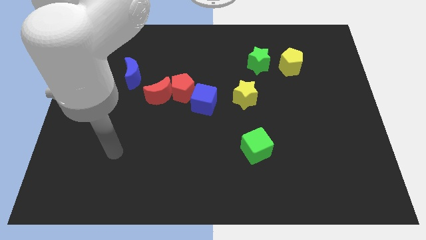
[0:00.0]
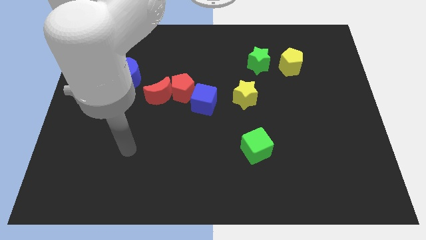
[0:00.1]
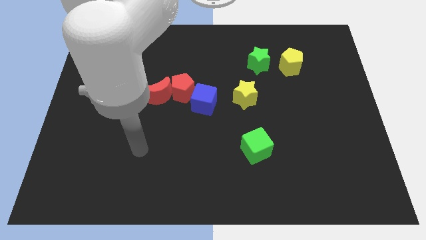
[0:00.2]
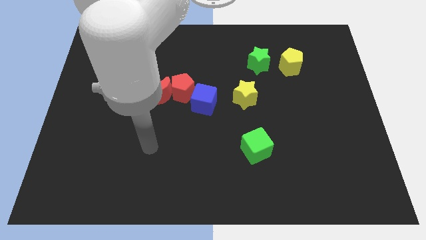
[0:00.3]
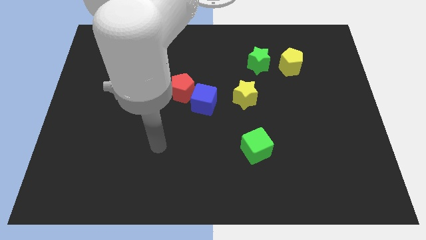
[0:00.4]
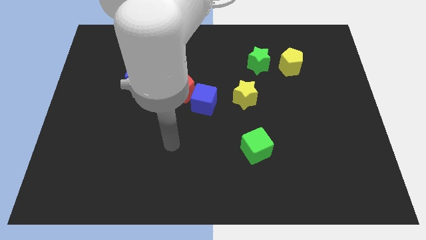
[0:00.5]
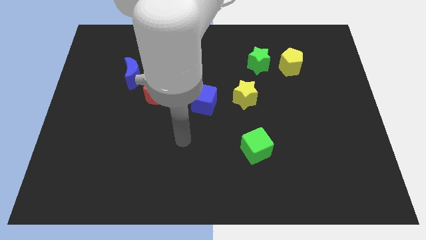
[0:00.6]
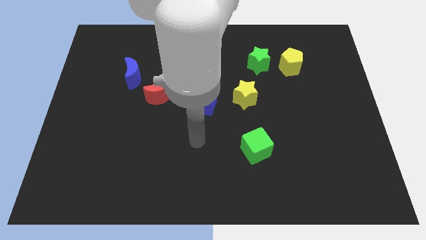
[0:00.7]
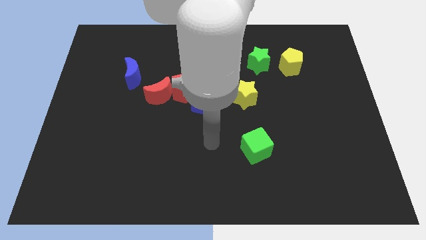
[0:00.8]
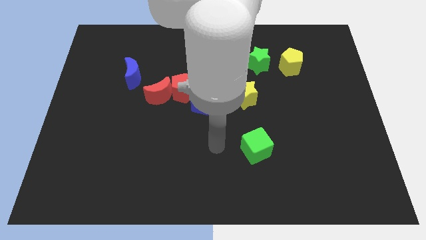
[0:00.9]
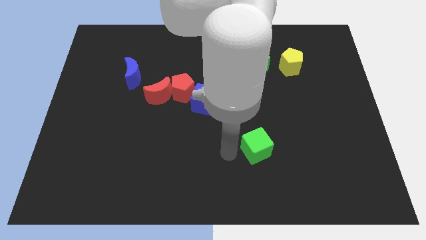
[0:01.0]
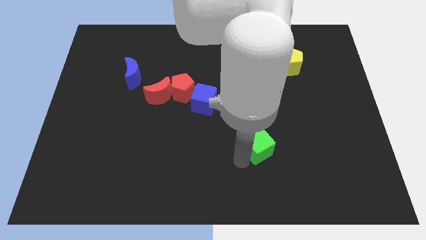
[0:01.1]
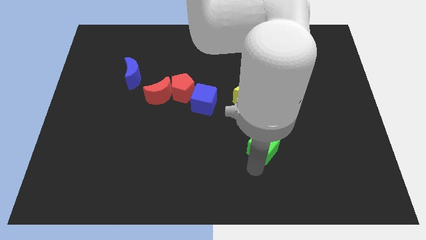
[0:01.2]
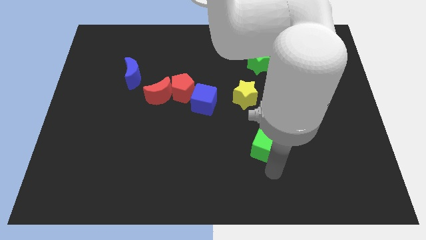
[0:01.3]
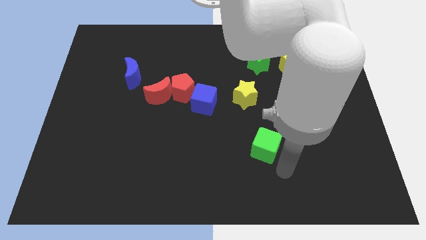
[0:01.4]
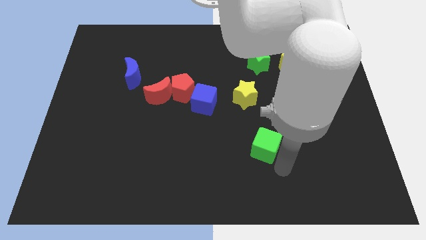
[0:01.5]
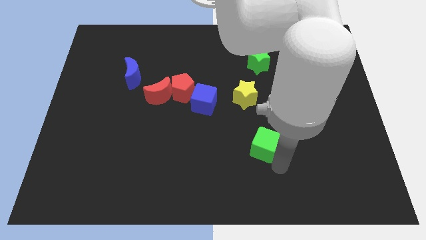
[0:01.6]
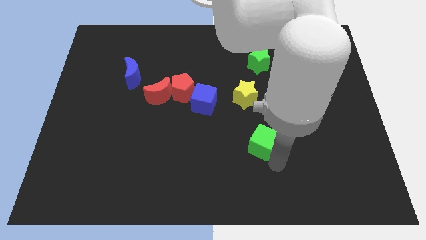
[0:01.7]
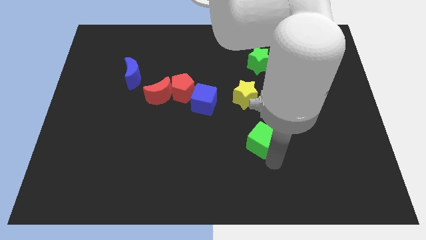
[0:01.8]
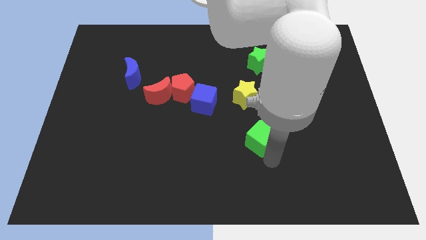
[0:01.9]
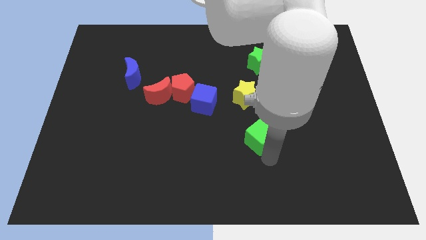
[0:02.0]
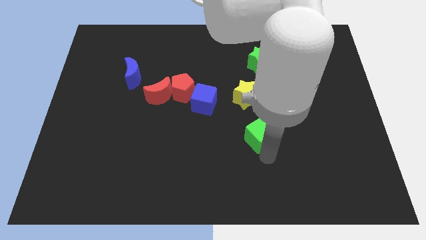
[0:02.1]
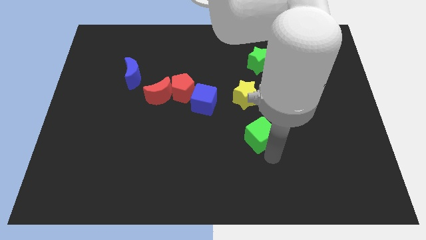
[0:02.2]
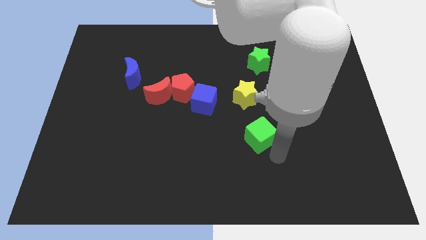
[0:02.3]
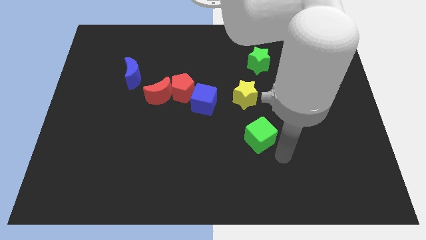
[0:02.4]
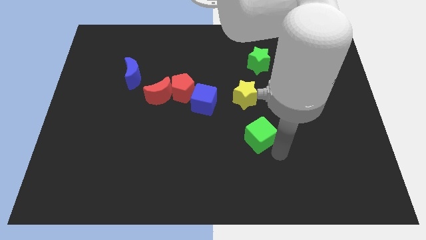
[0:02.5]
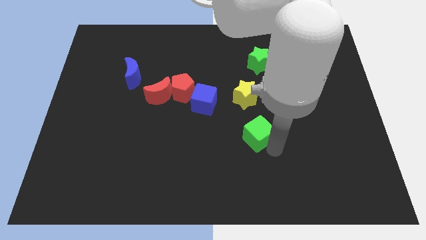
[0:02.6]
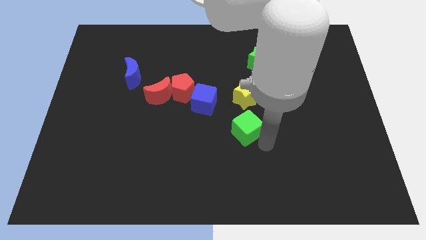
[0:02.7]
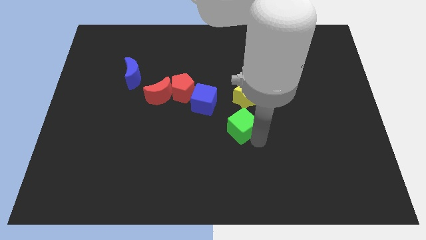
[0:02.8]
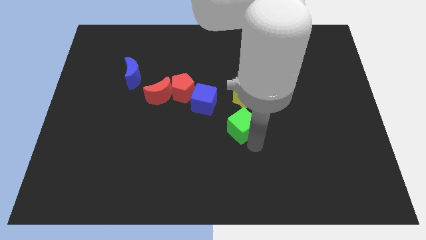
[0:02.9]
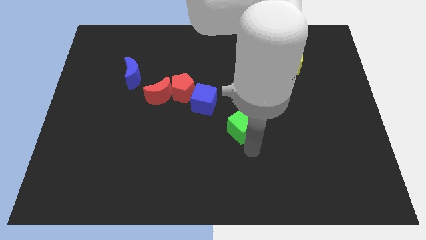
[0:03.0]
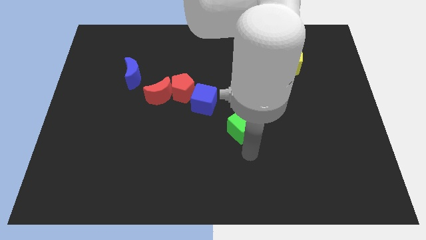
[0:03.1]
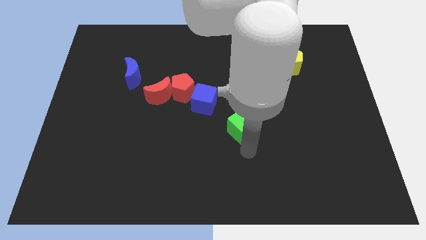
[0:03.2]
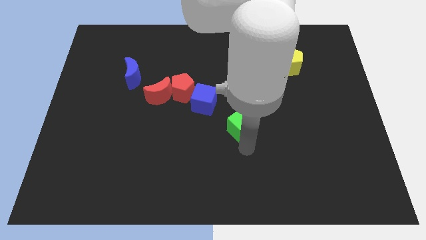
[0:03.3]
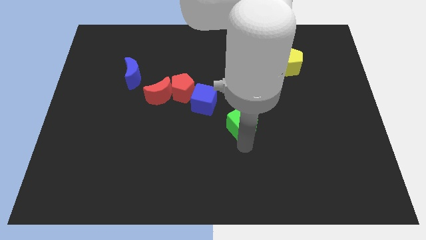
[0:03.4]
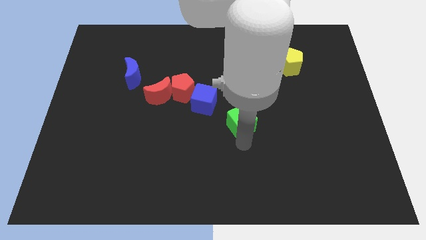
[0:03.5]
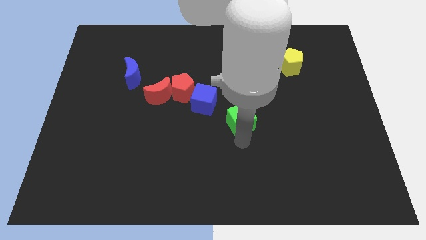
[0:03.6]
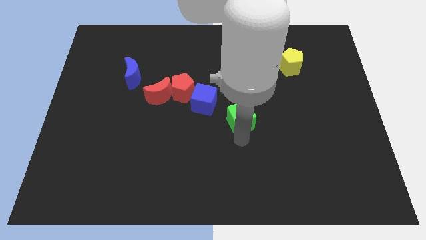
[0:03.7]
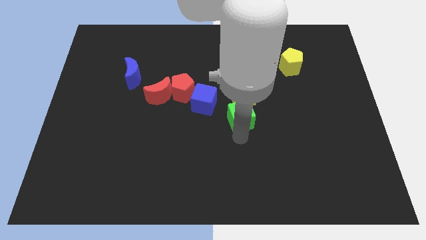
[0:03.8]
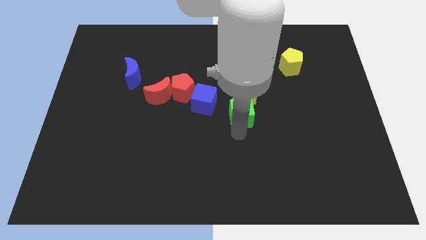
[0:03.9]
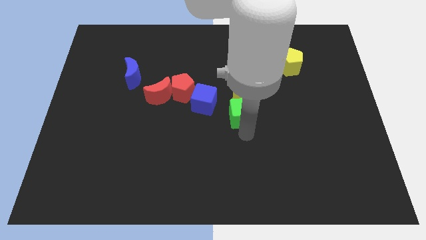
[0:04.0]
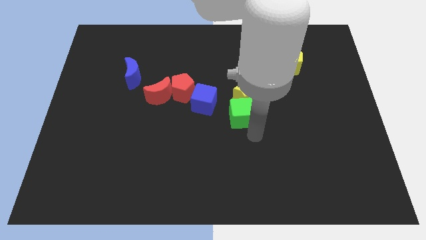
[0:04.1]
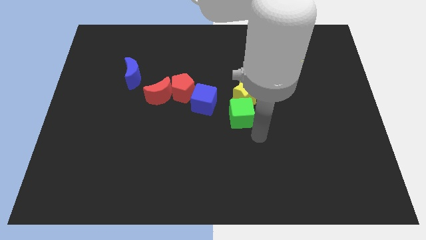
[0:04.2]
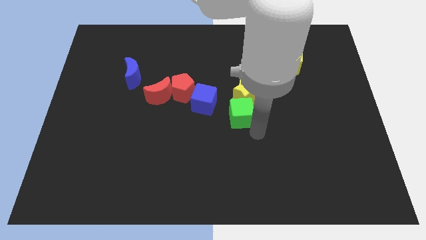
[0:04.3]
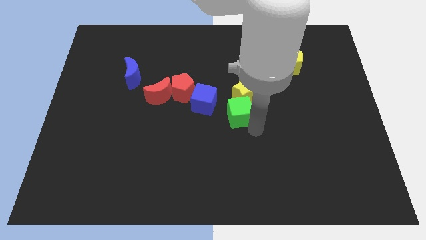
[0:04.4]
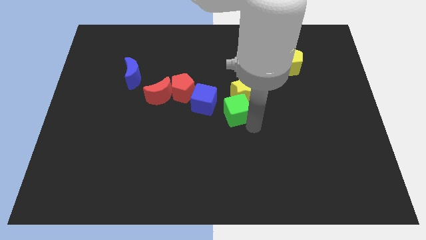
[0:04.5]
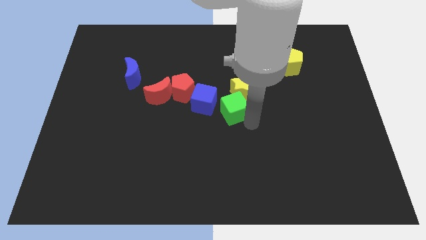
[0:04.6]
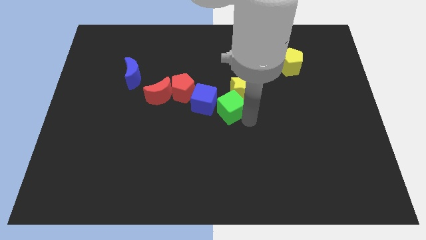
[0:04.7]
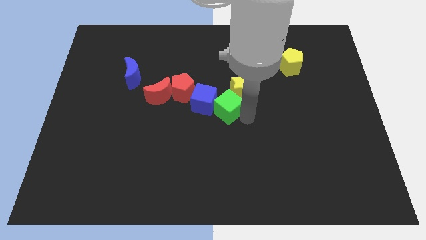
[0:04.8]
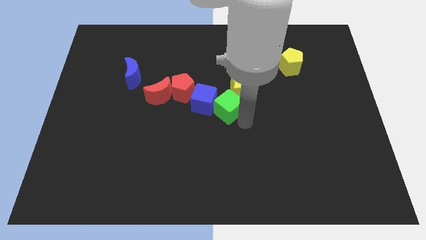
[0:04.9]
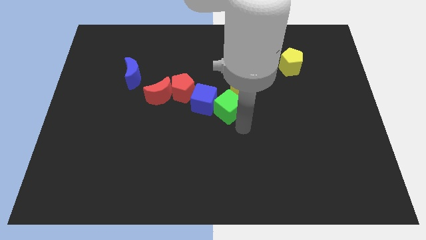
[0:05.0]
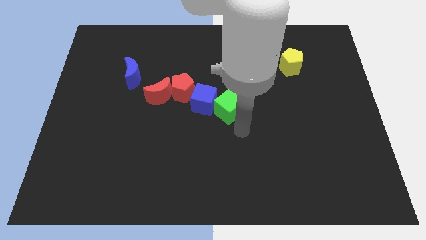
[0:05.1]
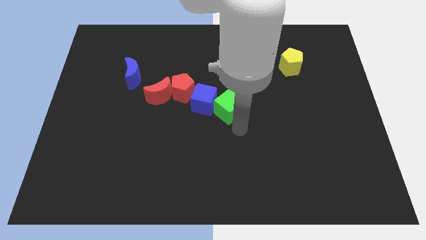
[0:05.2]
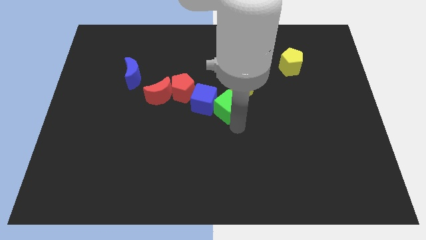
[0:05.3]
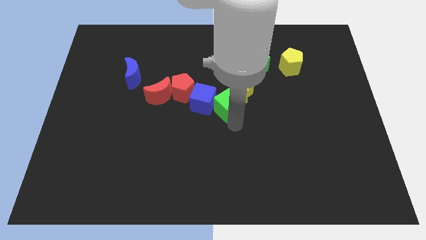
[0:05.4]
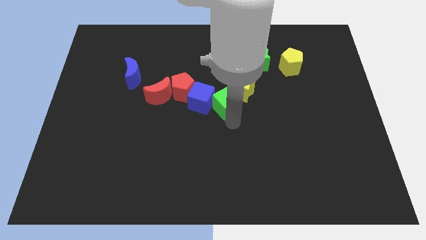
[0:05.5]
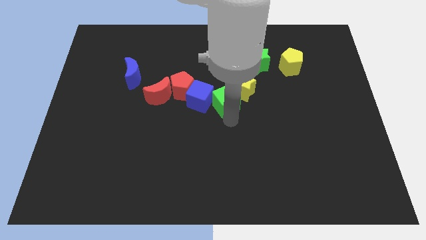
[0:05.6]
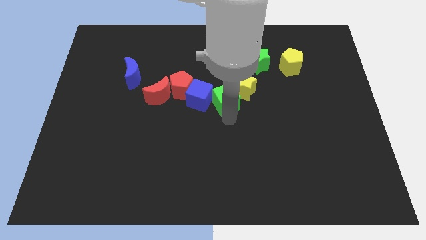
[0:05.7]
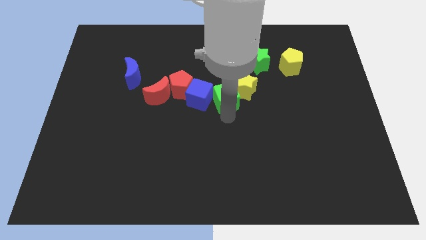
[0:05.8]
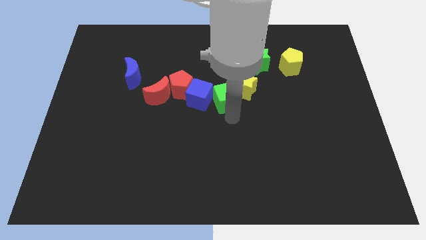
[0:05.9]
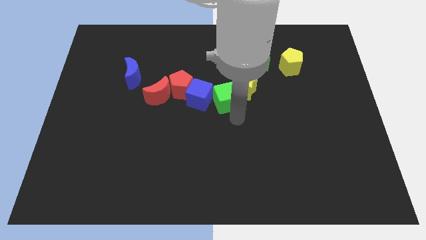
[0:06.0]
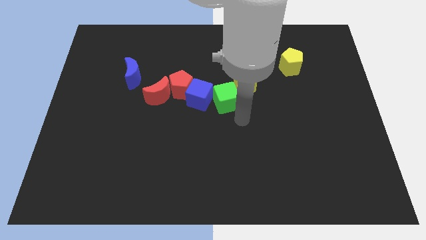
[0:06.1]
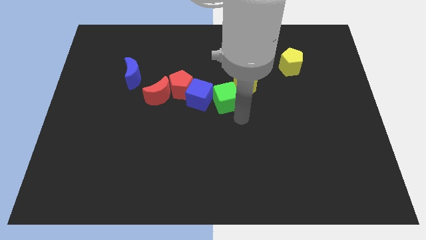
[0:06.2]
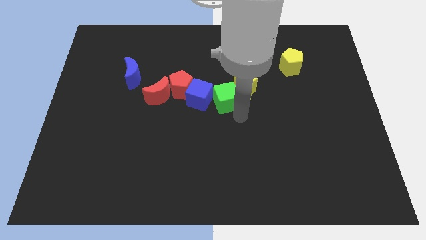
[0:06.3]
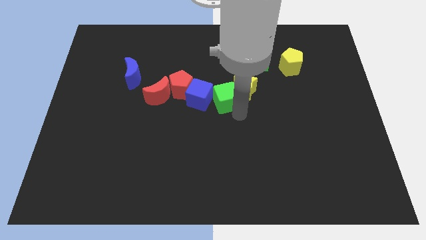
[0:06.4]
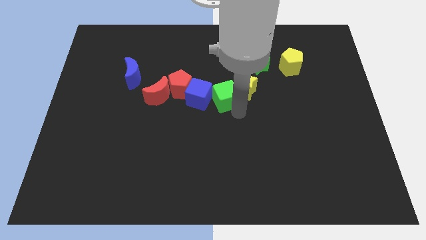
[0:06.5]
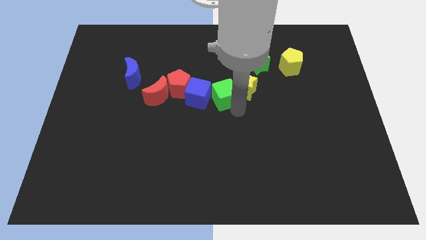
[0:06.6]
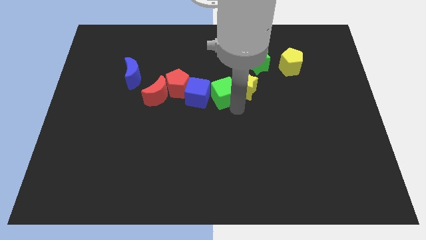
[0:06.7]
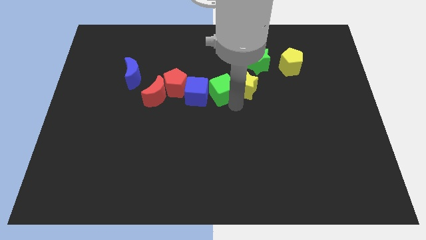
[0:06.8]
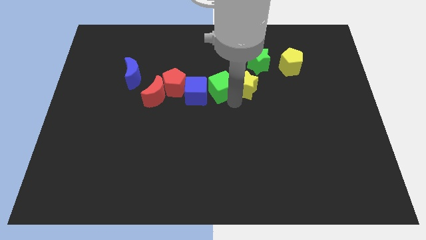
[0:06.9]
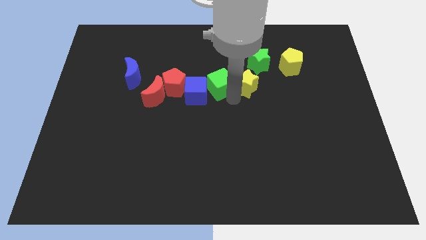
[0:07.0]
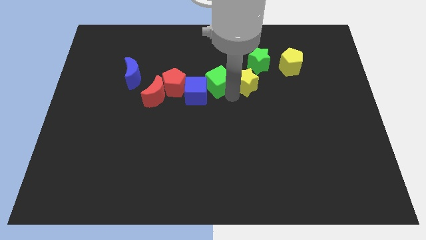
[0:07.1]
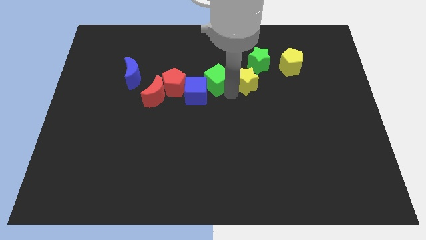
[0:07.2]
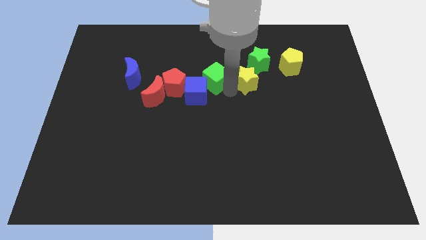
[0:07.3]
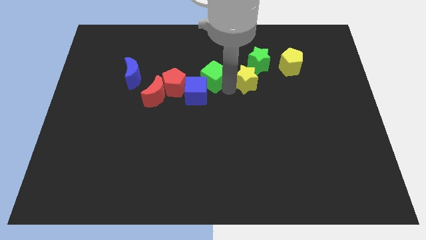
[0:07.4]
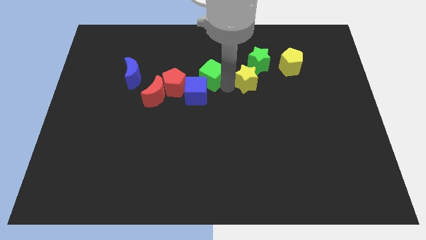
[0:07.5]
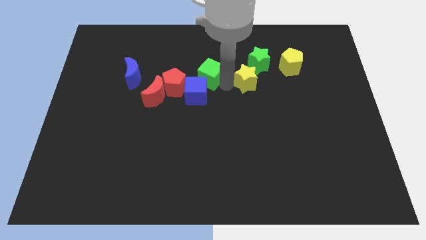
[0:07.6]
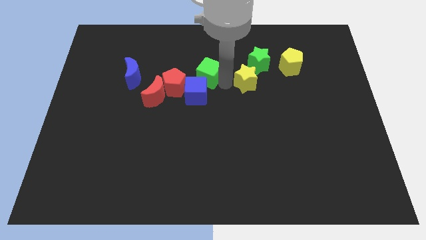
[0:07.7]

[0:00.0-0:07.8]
move the green cube up and to the left diagonally

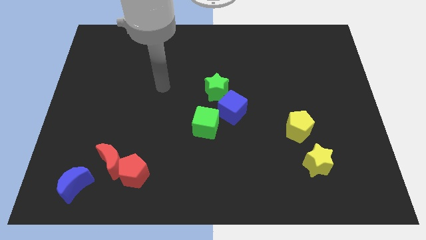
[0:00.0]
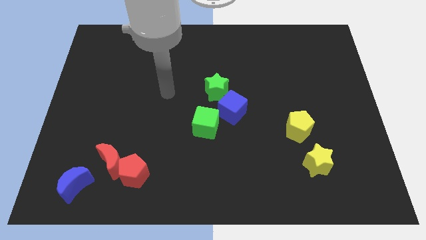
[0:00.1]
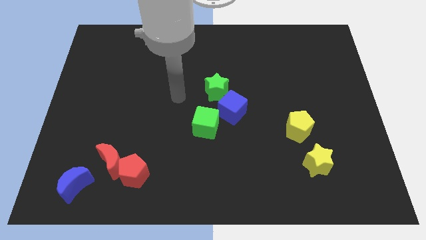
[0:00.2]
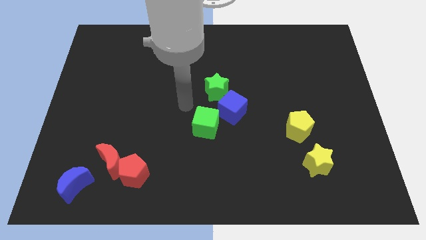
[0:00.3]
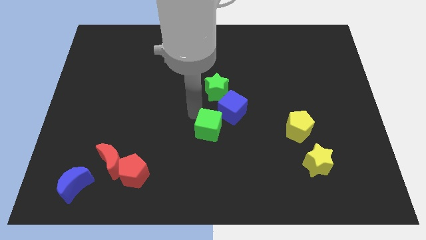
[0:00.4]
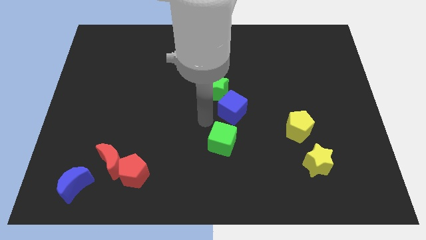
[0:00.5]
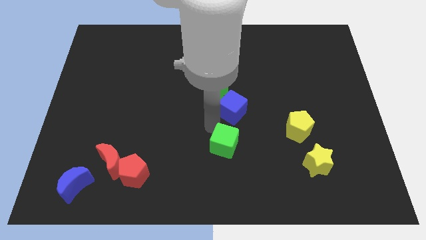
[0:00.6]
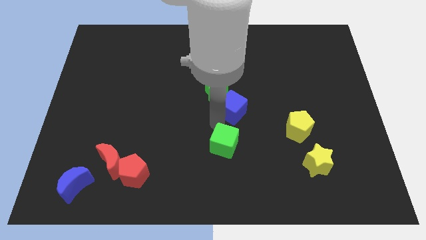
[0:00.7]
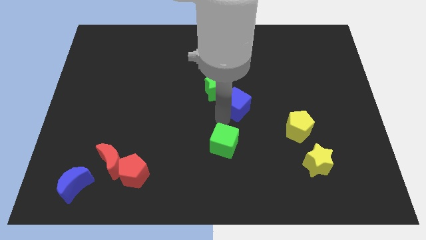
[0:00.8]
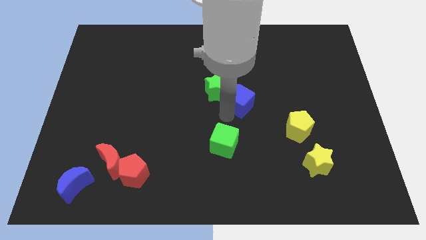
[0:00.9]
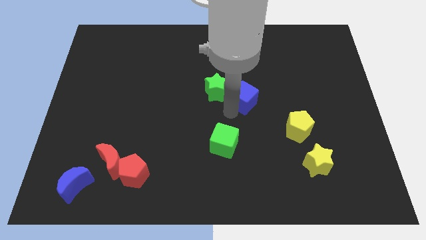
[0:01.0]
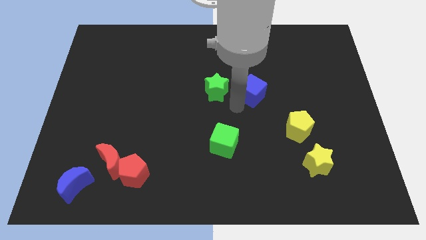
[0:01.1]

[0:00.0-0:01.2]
move the blue cube upwards and then right somewhat
